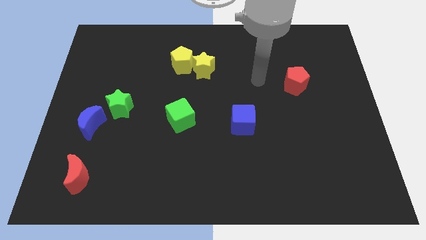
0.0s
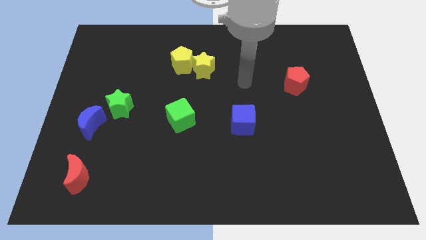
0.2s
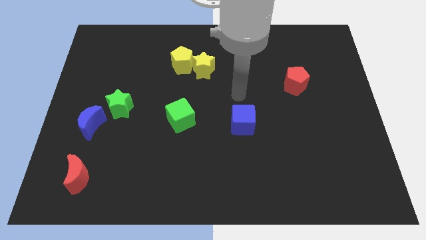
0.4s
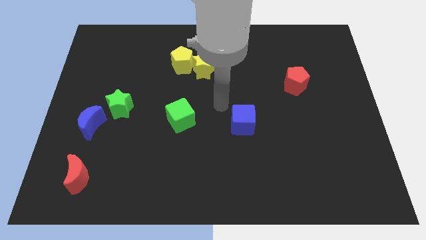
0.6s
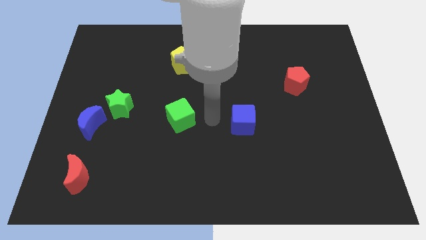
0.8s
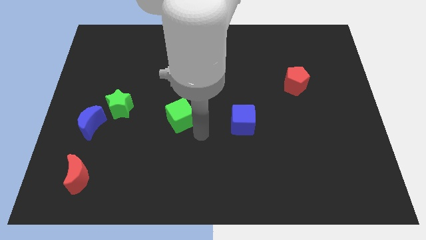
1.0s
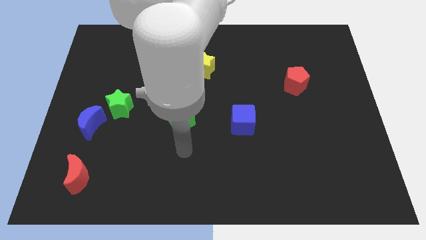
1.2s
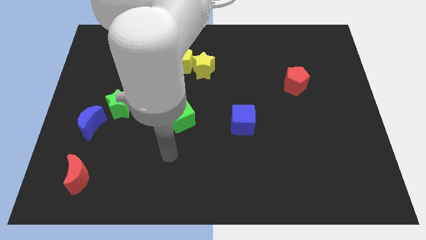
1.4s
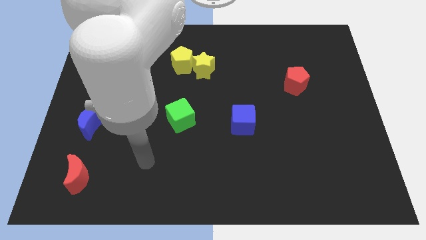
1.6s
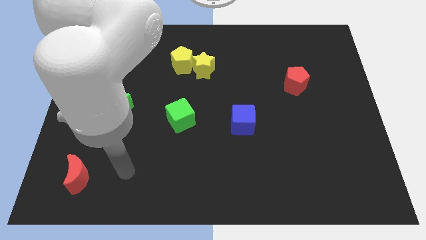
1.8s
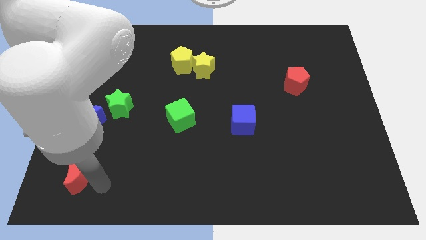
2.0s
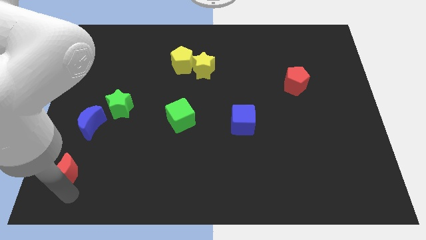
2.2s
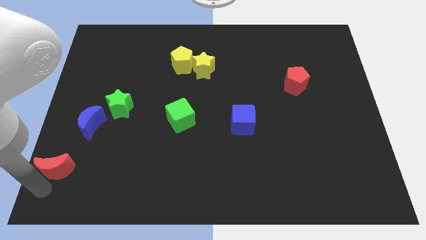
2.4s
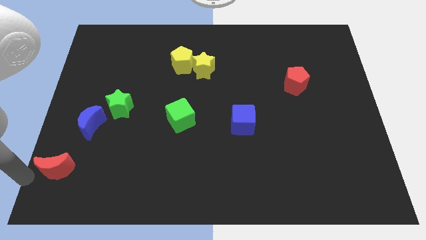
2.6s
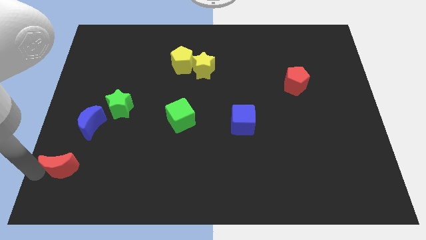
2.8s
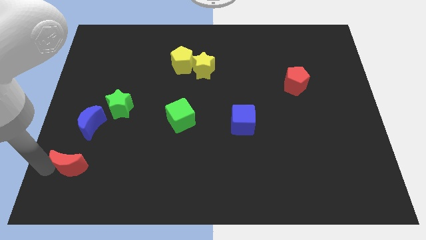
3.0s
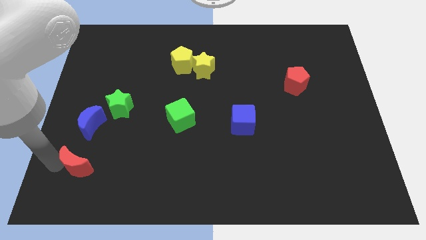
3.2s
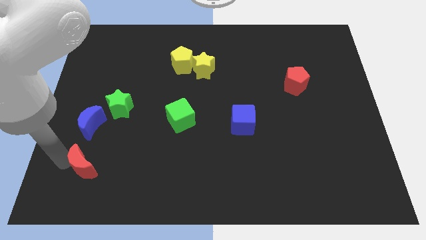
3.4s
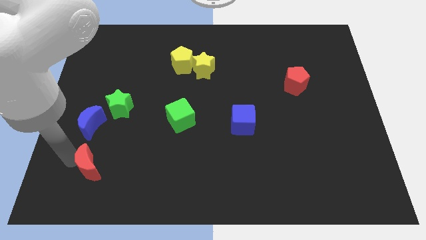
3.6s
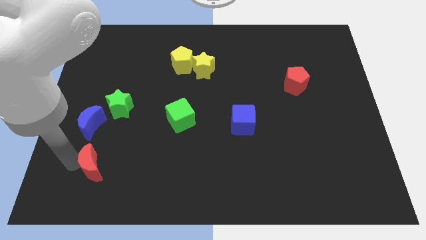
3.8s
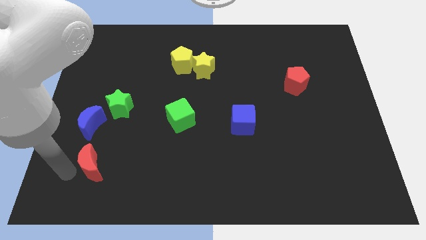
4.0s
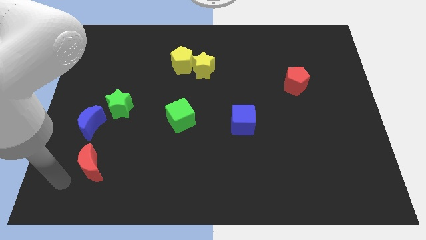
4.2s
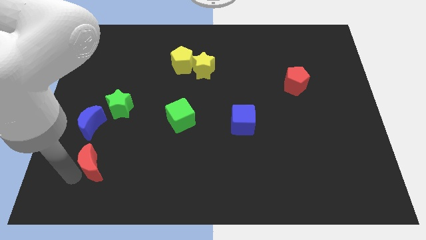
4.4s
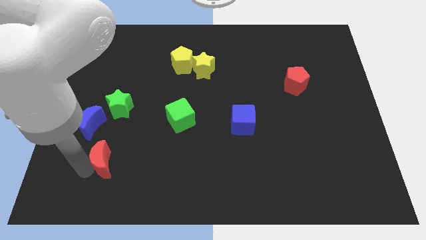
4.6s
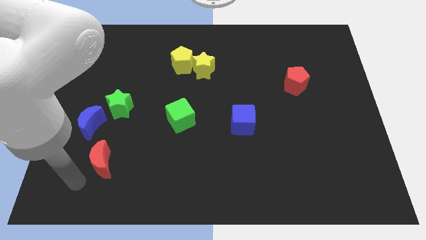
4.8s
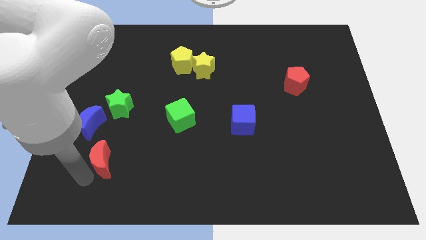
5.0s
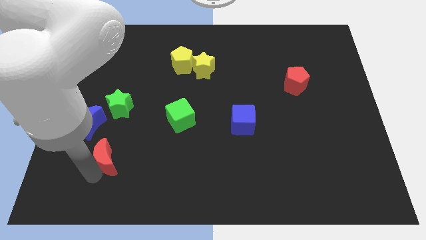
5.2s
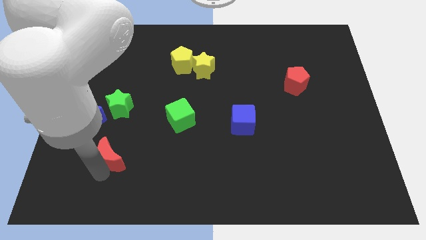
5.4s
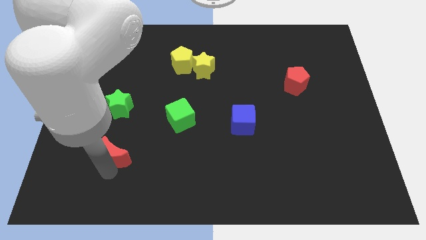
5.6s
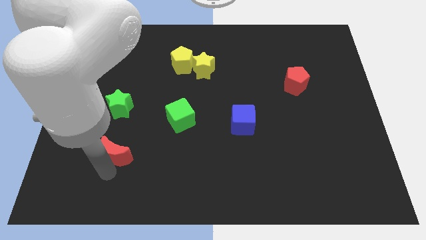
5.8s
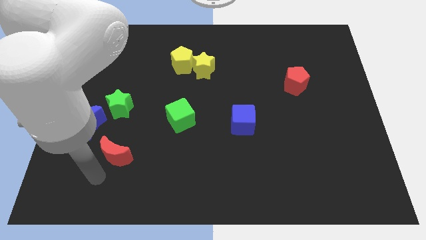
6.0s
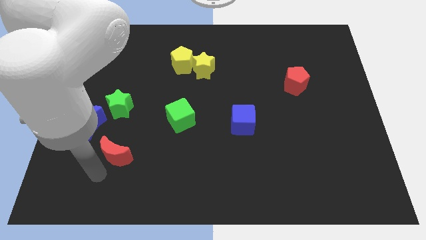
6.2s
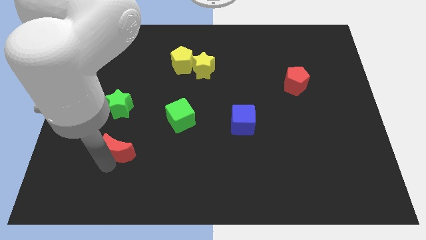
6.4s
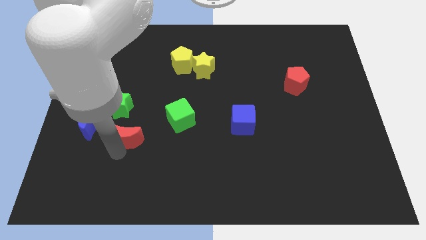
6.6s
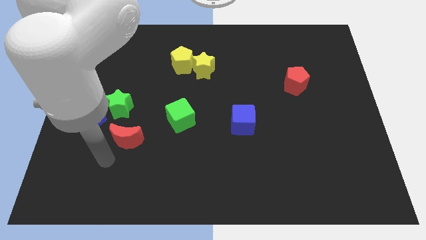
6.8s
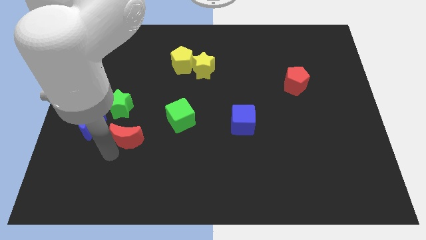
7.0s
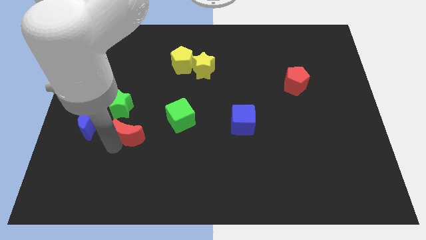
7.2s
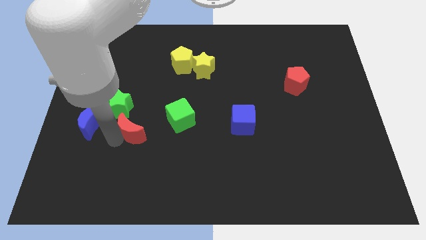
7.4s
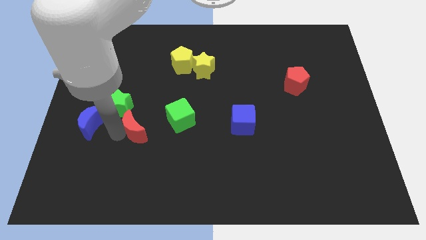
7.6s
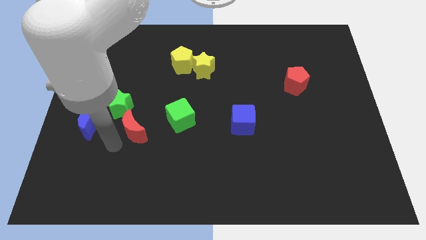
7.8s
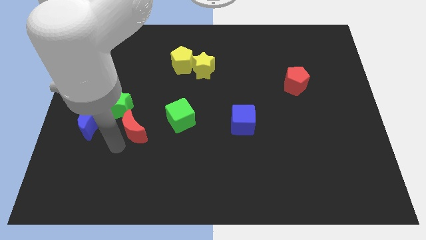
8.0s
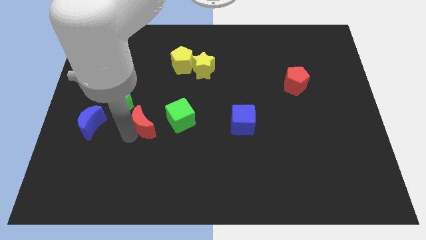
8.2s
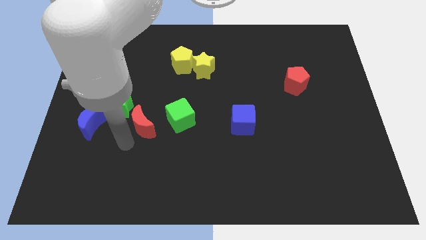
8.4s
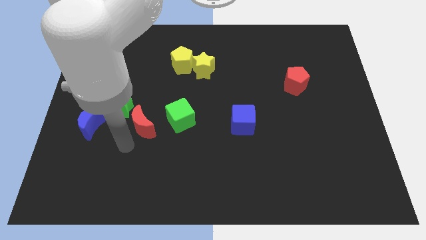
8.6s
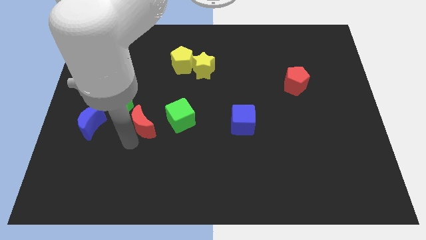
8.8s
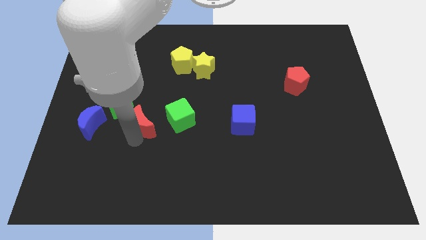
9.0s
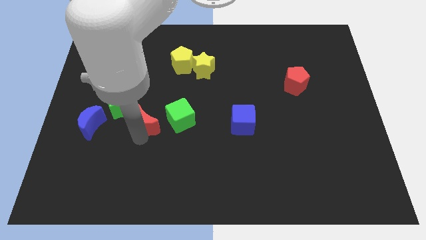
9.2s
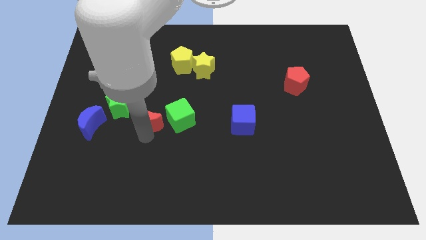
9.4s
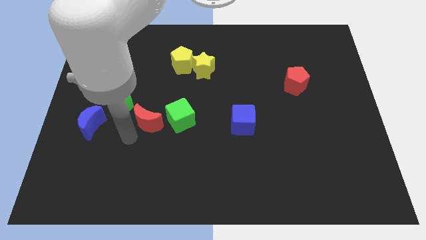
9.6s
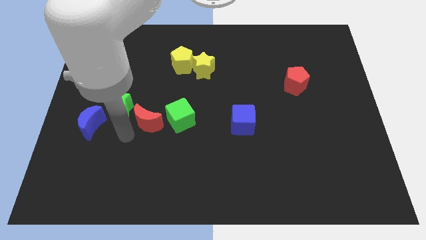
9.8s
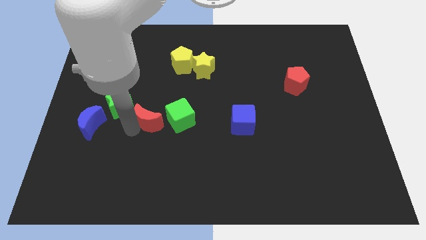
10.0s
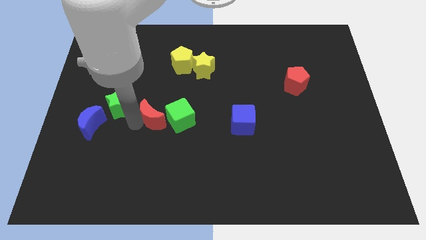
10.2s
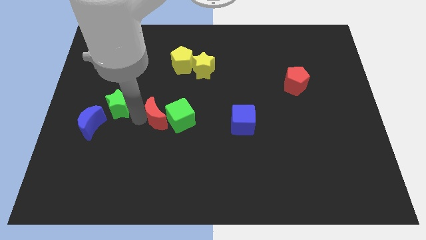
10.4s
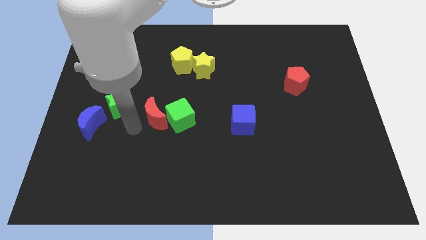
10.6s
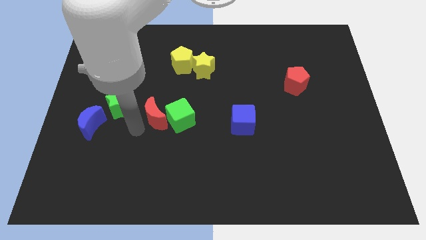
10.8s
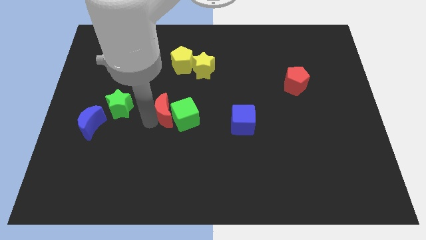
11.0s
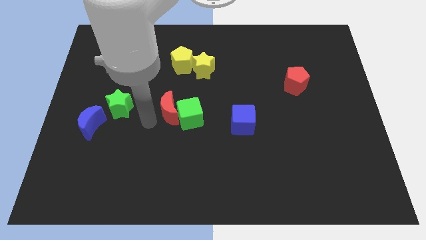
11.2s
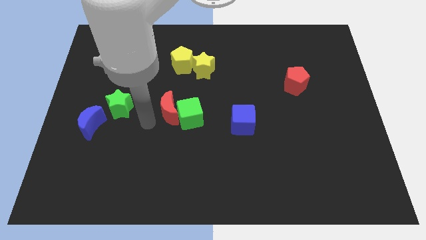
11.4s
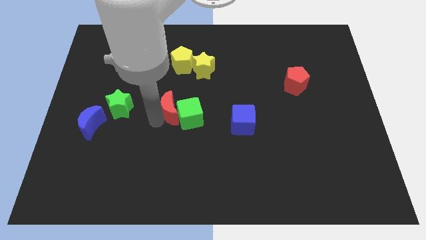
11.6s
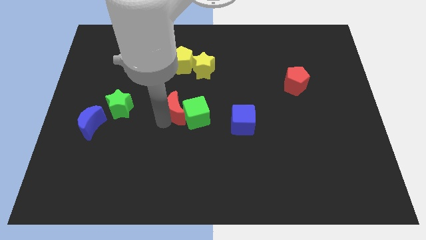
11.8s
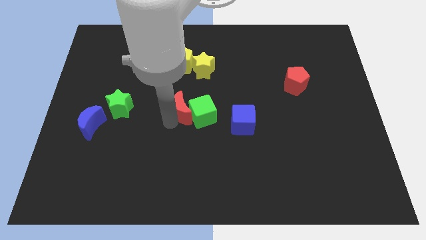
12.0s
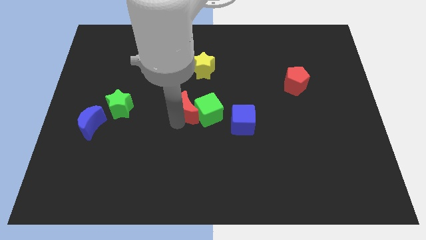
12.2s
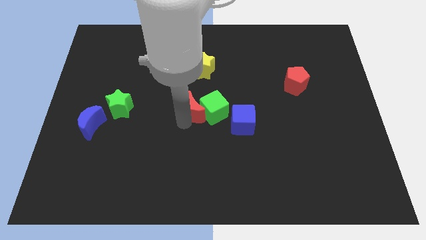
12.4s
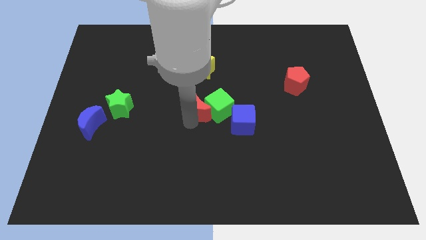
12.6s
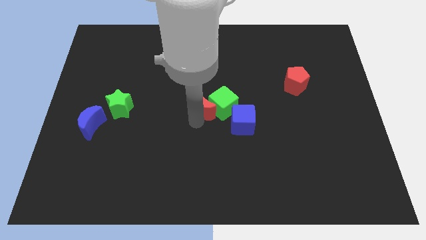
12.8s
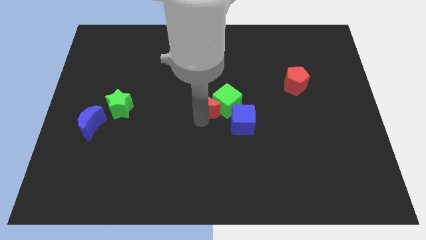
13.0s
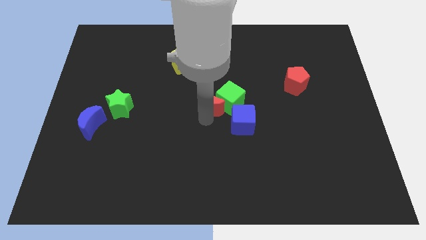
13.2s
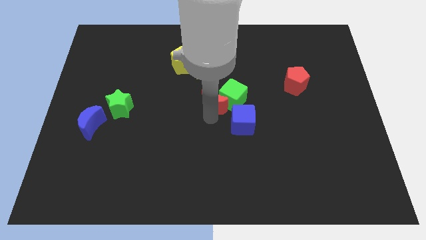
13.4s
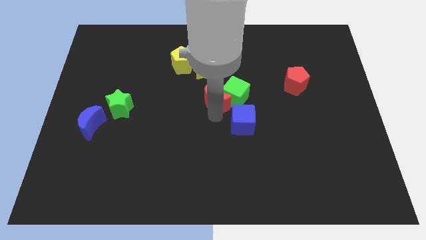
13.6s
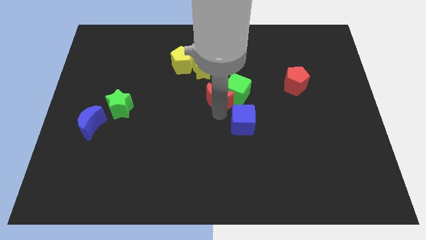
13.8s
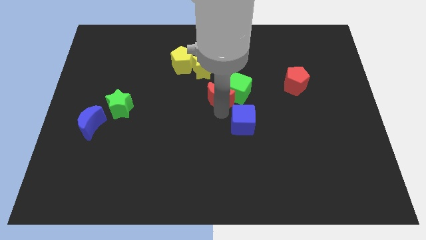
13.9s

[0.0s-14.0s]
push the red moon to the bottom right side of the yellow star
